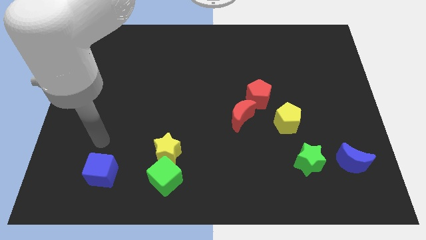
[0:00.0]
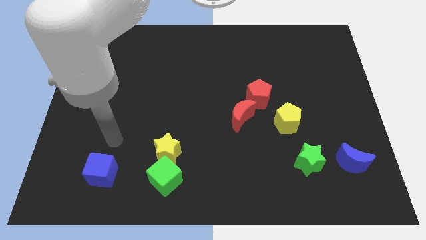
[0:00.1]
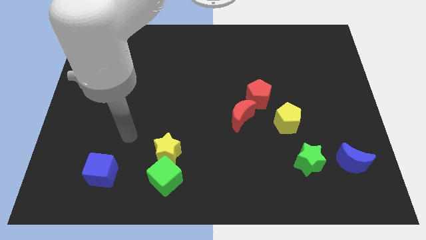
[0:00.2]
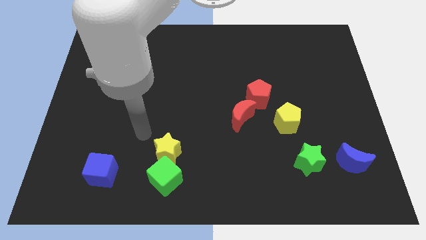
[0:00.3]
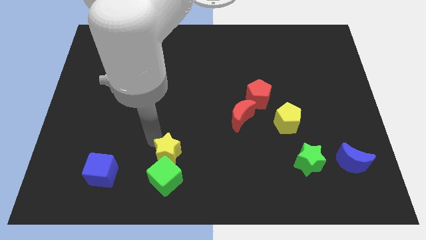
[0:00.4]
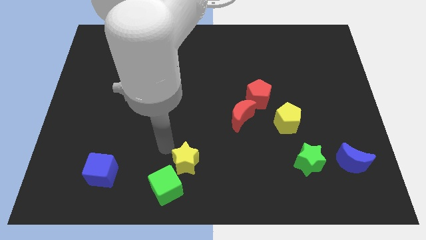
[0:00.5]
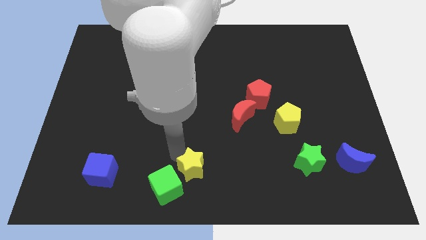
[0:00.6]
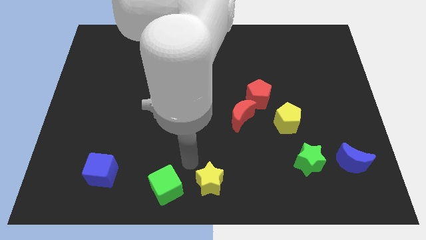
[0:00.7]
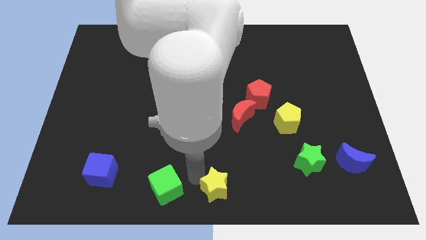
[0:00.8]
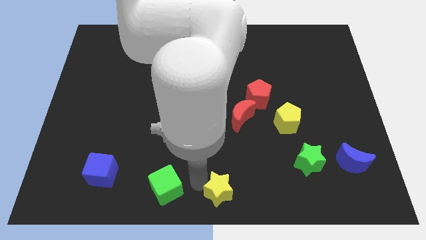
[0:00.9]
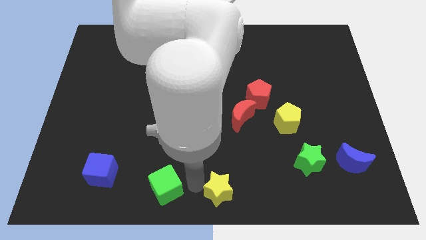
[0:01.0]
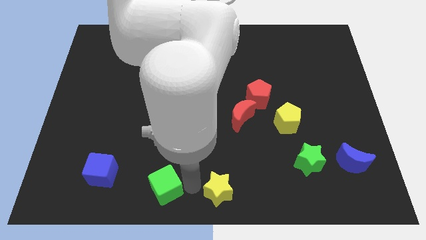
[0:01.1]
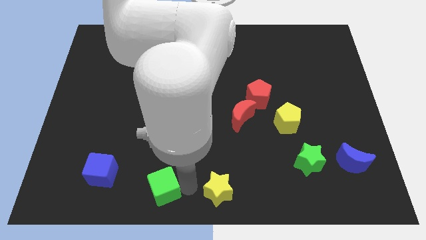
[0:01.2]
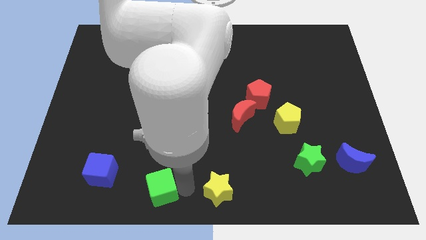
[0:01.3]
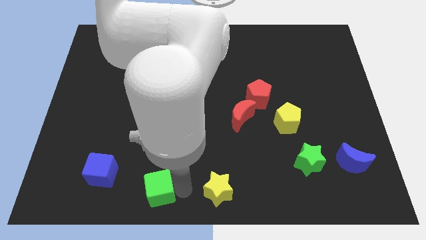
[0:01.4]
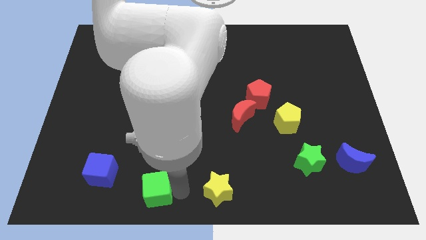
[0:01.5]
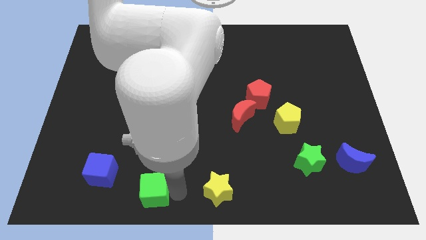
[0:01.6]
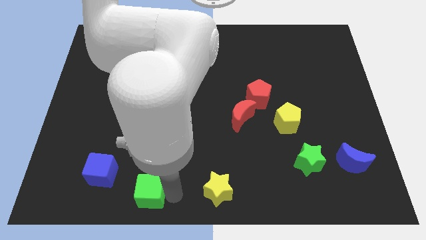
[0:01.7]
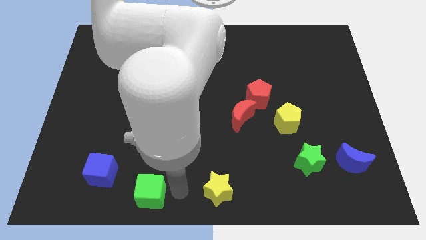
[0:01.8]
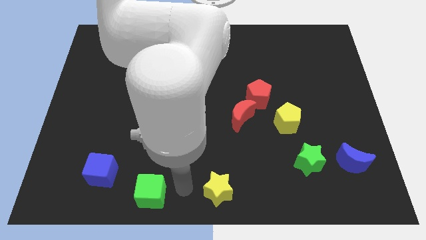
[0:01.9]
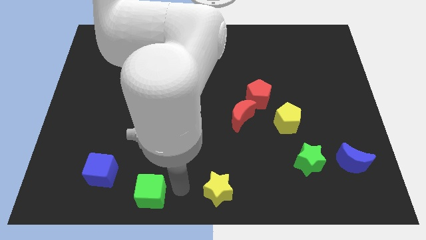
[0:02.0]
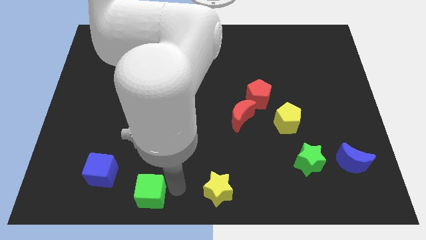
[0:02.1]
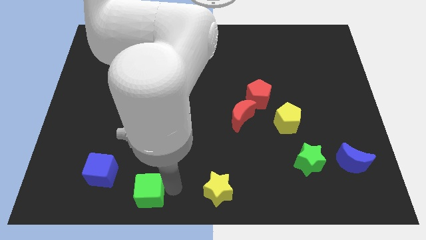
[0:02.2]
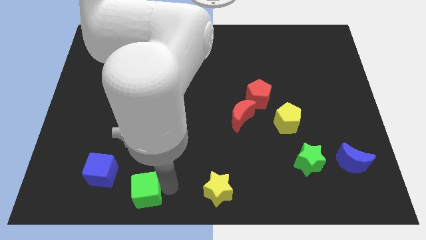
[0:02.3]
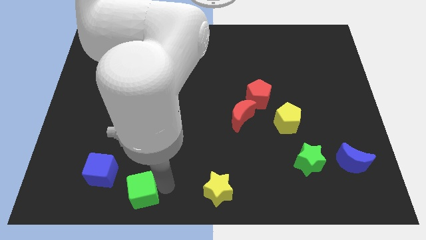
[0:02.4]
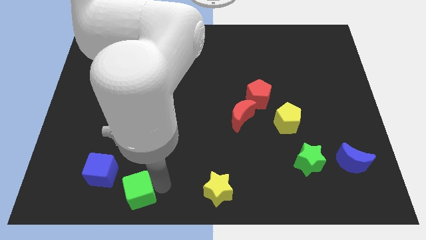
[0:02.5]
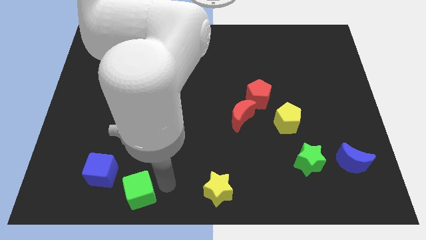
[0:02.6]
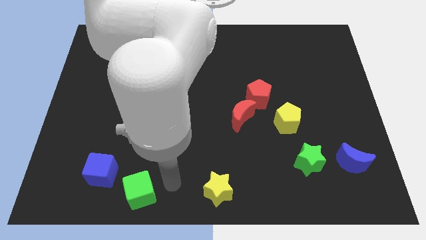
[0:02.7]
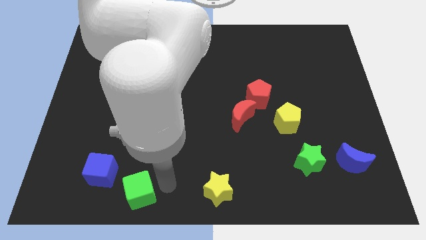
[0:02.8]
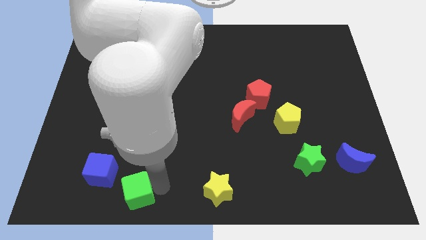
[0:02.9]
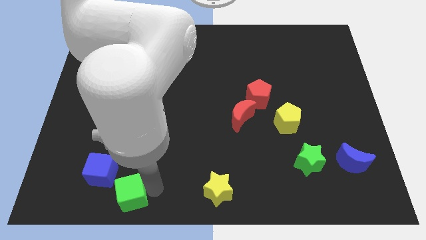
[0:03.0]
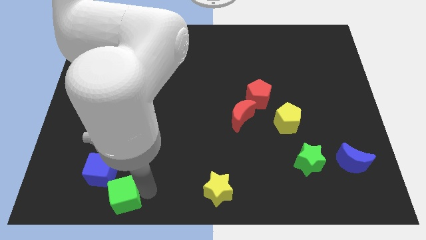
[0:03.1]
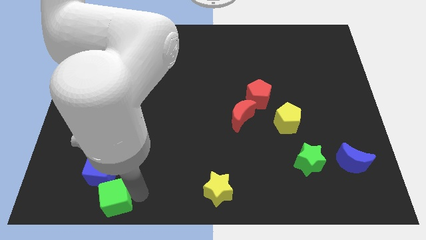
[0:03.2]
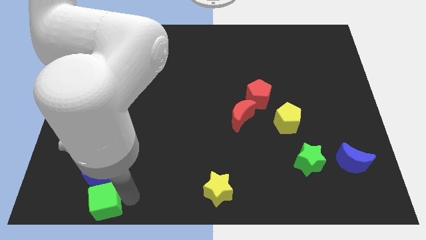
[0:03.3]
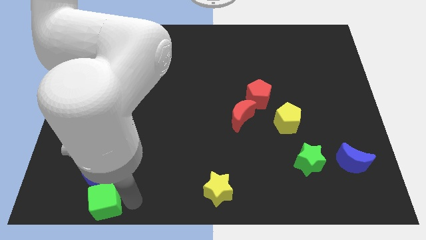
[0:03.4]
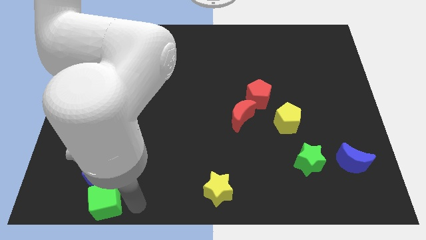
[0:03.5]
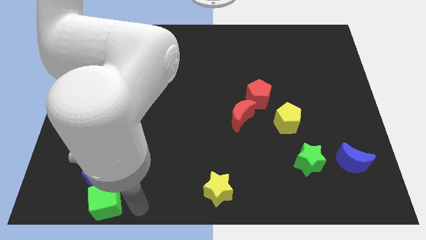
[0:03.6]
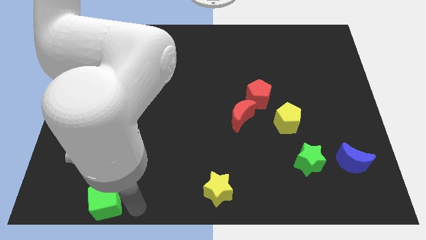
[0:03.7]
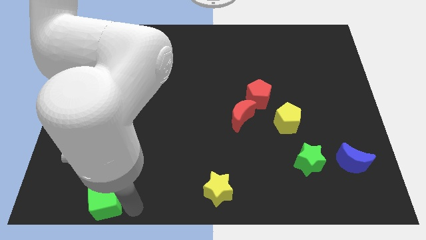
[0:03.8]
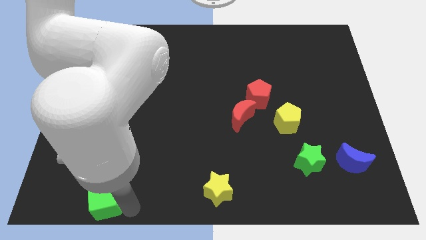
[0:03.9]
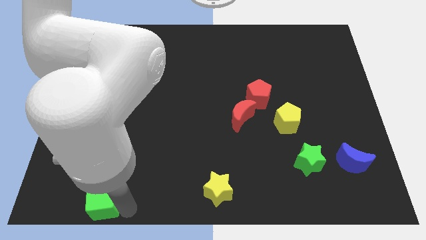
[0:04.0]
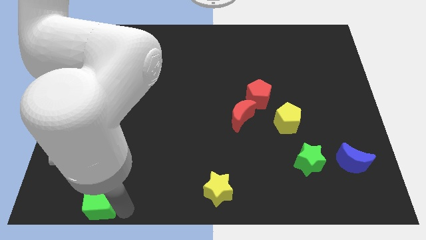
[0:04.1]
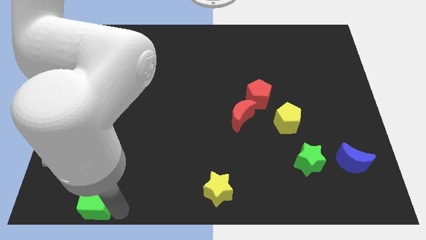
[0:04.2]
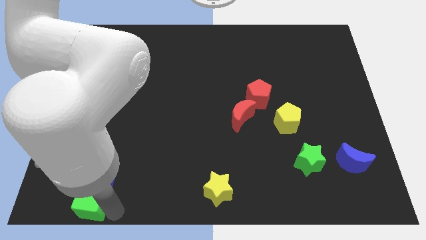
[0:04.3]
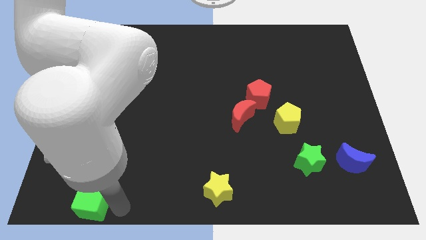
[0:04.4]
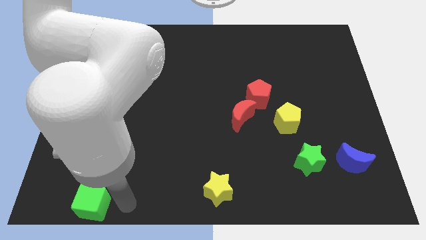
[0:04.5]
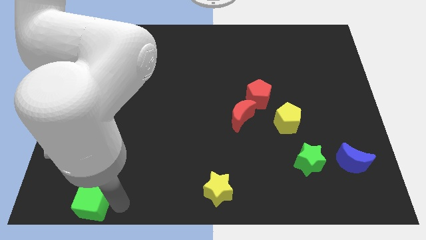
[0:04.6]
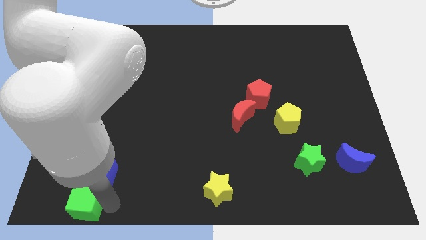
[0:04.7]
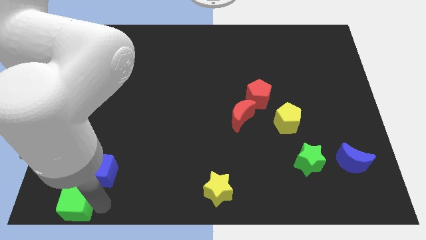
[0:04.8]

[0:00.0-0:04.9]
move the green cube to the bottom left corner

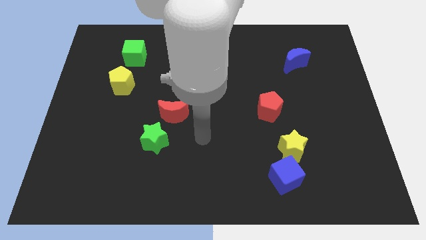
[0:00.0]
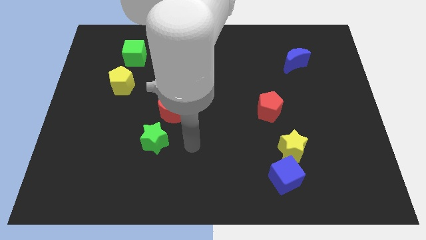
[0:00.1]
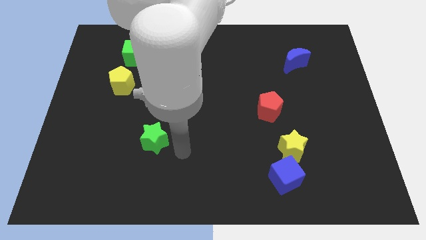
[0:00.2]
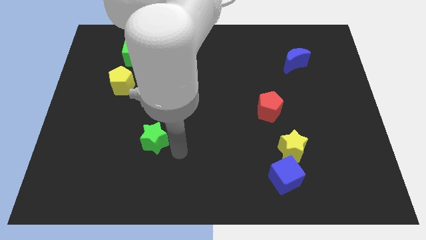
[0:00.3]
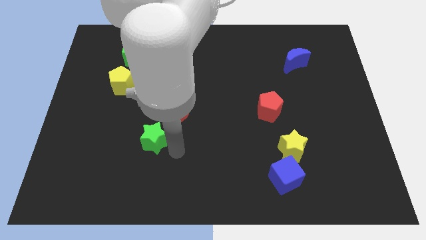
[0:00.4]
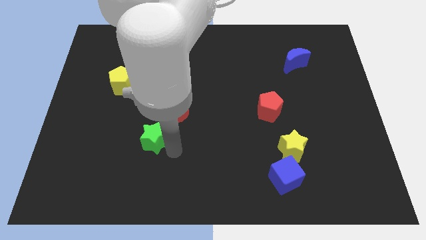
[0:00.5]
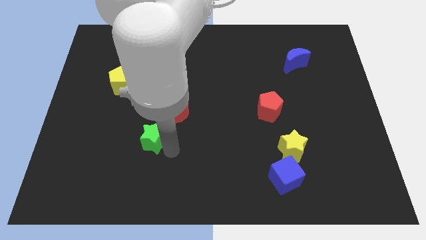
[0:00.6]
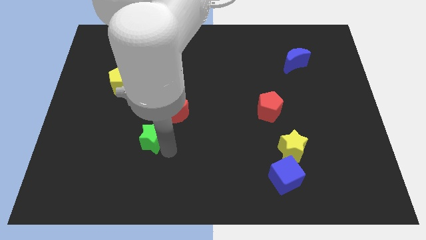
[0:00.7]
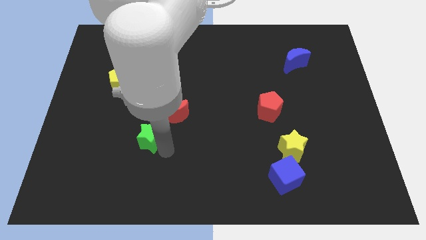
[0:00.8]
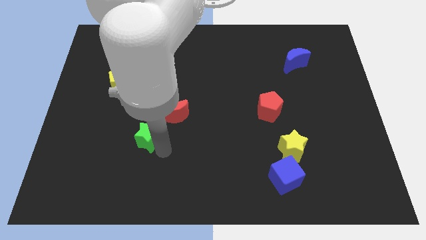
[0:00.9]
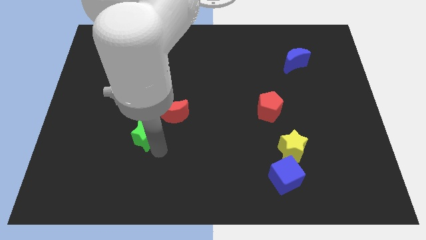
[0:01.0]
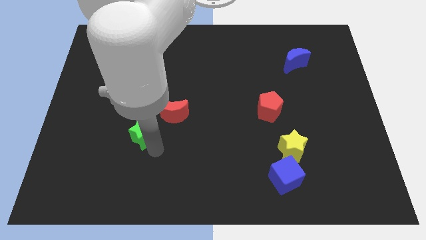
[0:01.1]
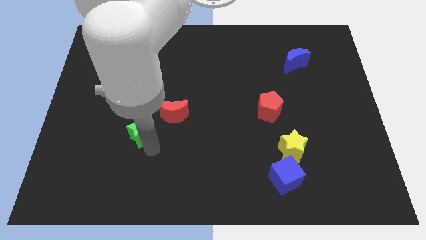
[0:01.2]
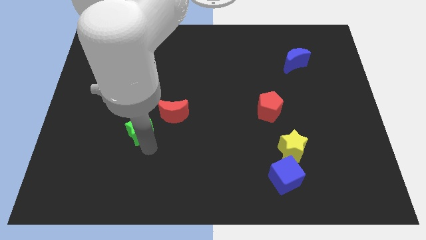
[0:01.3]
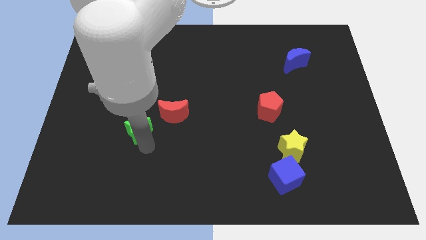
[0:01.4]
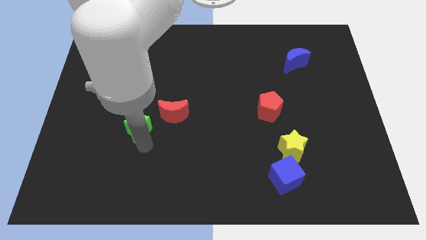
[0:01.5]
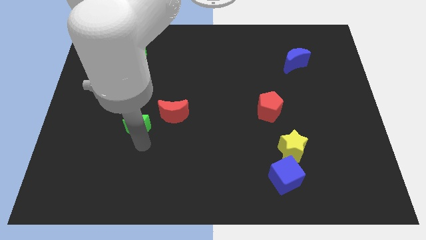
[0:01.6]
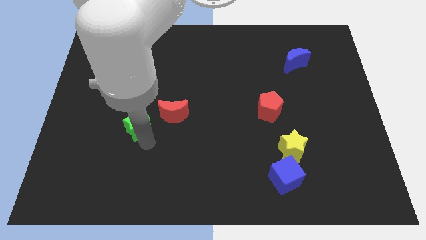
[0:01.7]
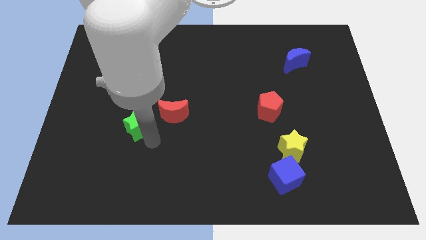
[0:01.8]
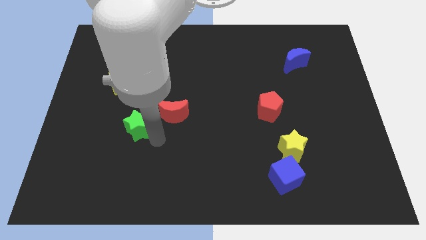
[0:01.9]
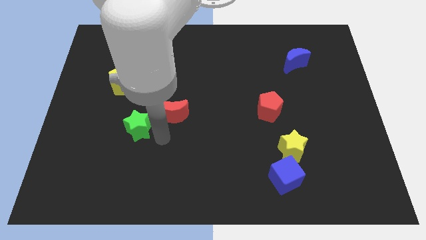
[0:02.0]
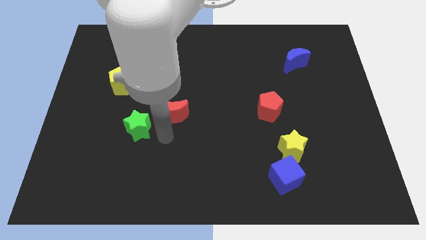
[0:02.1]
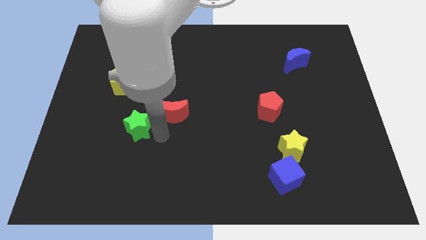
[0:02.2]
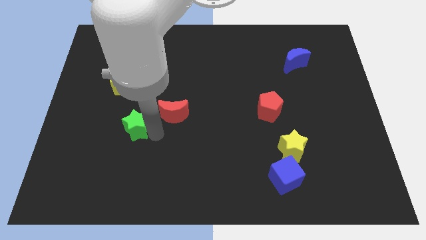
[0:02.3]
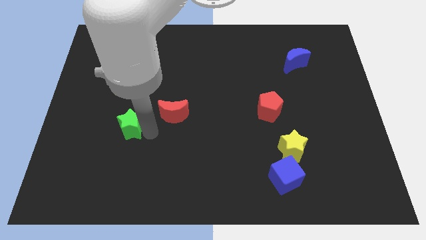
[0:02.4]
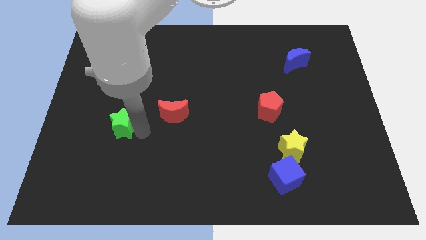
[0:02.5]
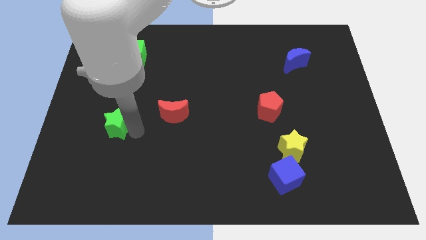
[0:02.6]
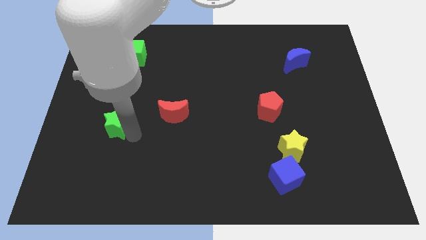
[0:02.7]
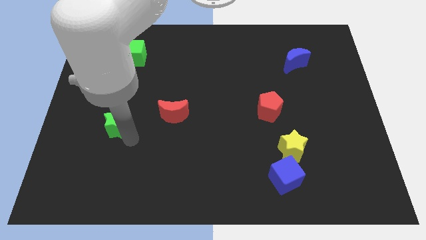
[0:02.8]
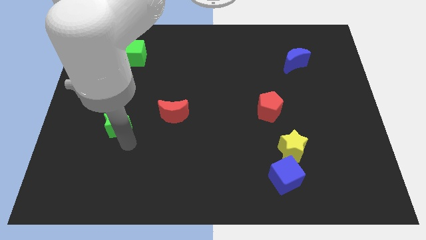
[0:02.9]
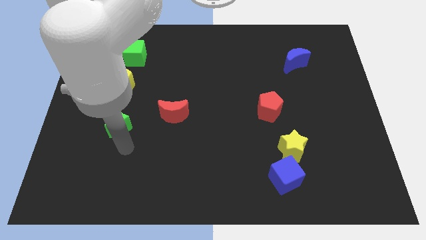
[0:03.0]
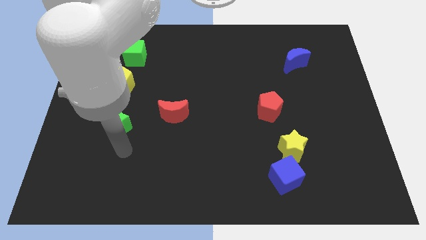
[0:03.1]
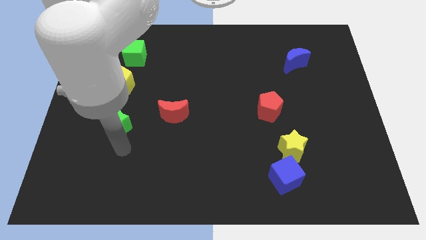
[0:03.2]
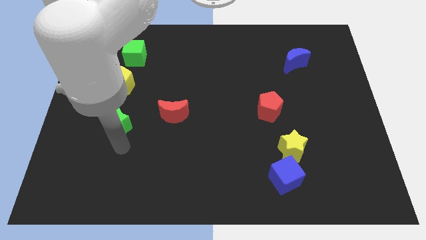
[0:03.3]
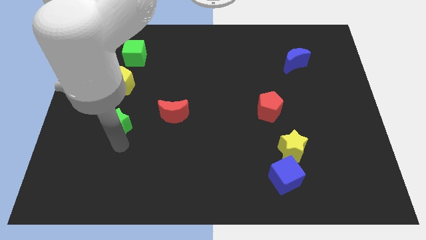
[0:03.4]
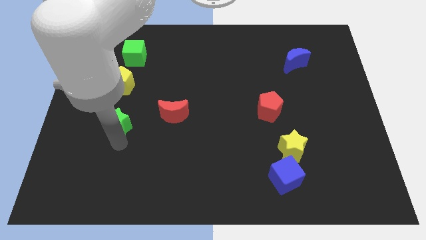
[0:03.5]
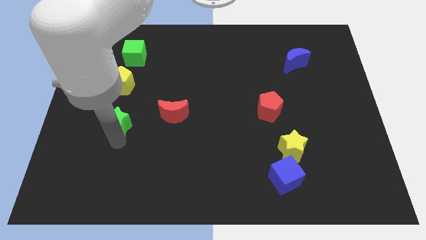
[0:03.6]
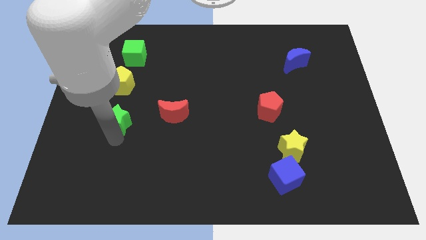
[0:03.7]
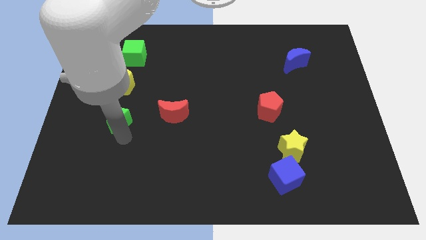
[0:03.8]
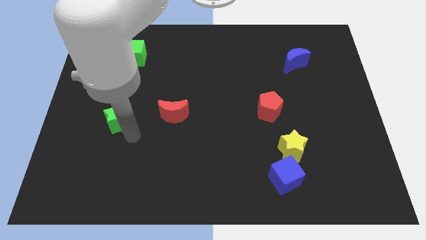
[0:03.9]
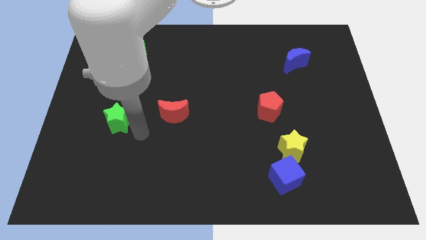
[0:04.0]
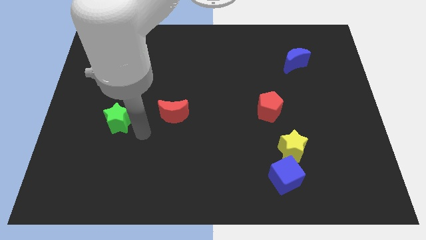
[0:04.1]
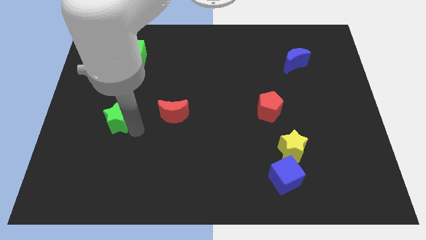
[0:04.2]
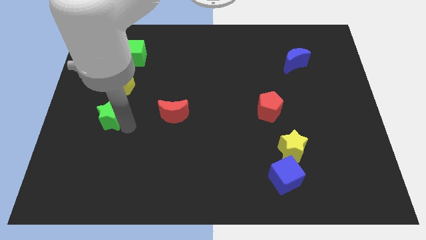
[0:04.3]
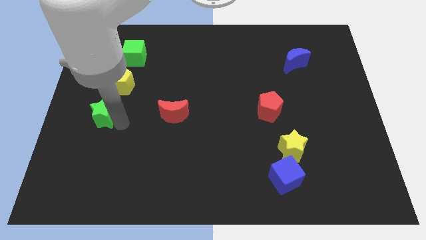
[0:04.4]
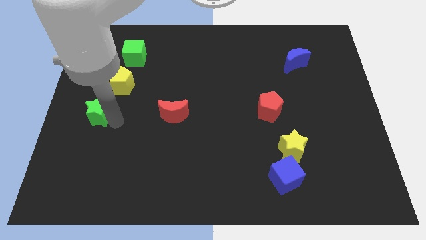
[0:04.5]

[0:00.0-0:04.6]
slide the green star to the center left
